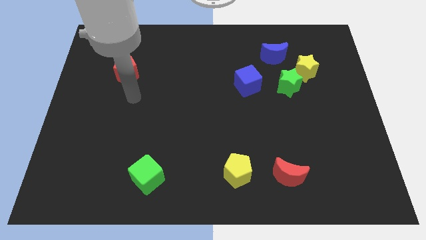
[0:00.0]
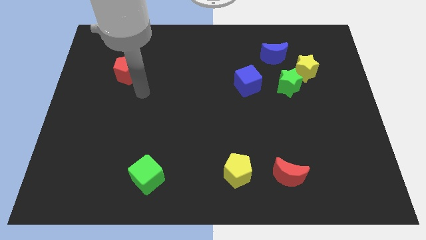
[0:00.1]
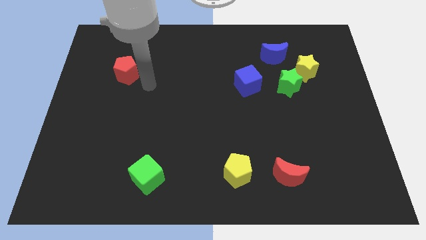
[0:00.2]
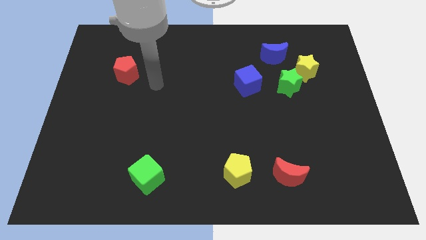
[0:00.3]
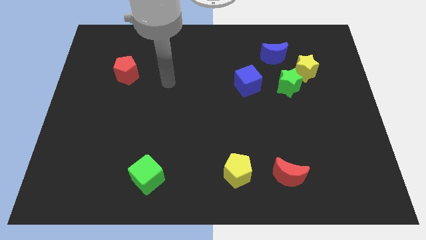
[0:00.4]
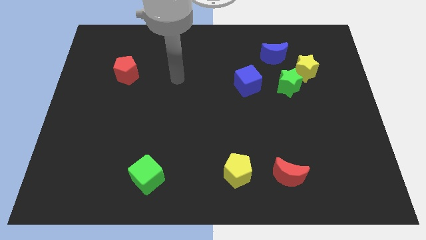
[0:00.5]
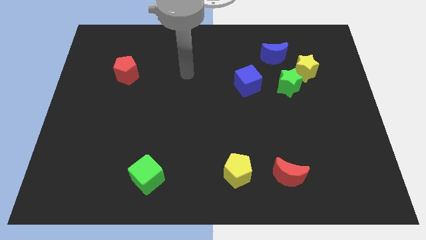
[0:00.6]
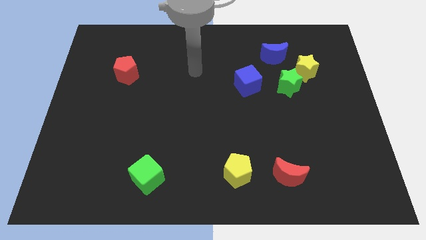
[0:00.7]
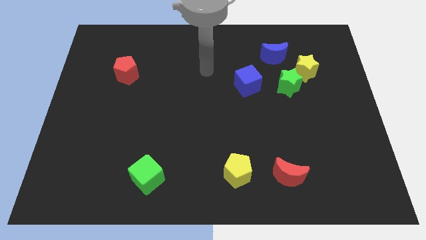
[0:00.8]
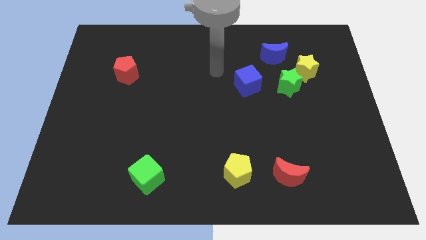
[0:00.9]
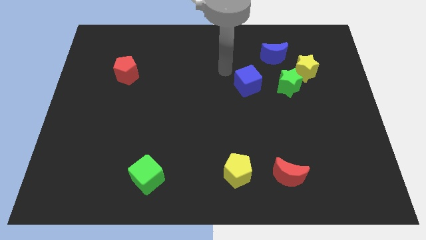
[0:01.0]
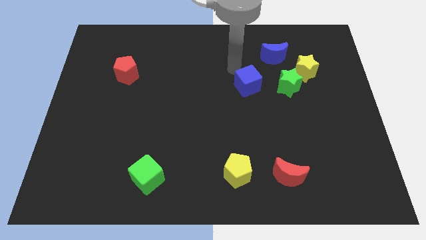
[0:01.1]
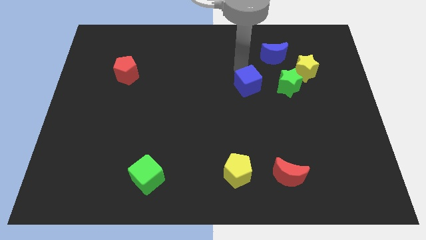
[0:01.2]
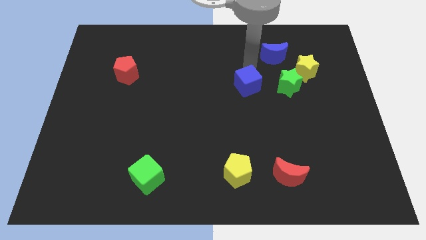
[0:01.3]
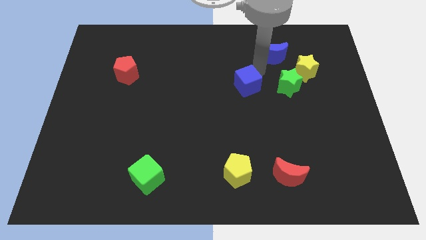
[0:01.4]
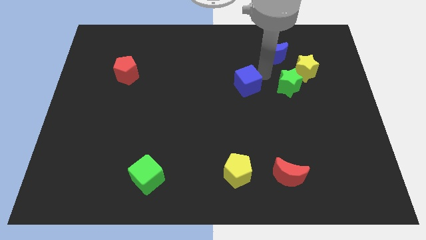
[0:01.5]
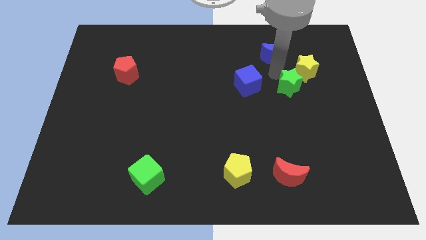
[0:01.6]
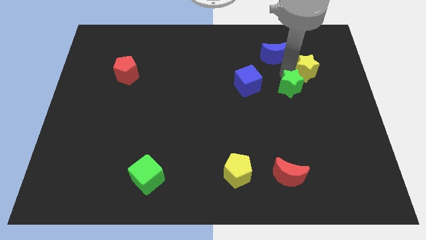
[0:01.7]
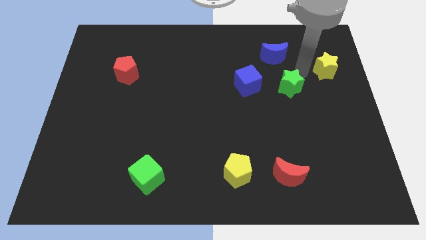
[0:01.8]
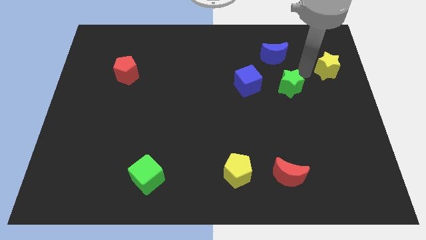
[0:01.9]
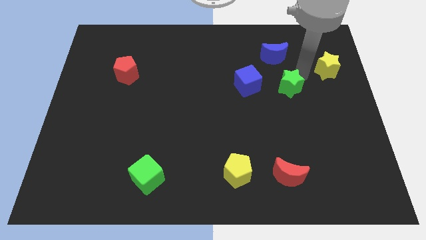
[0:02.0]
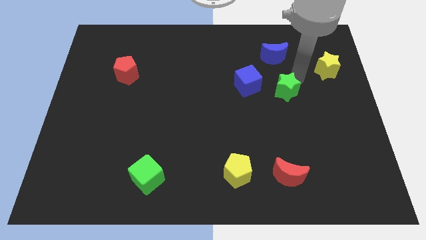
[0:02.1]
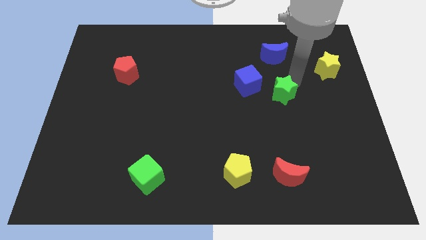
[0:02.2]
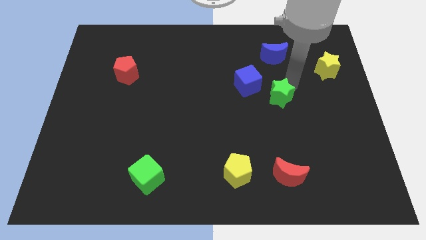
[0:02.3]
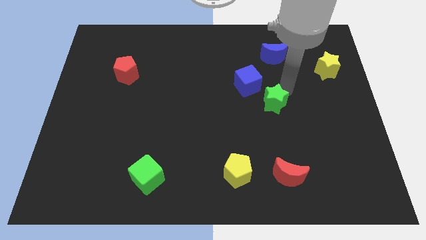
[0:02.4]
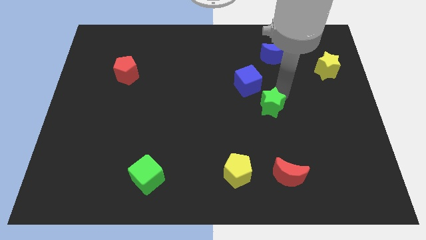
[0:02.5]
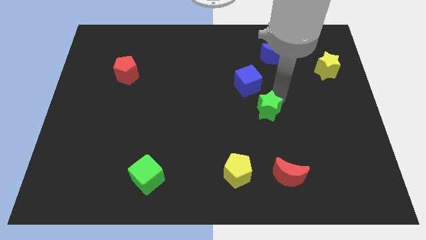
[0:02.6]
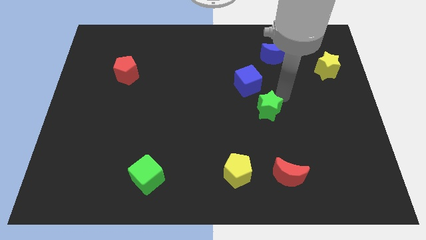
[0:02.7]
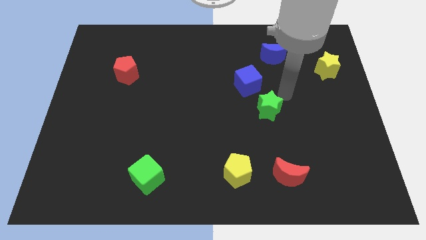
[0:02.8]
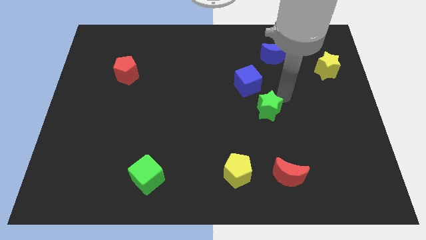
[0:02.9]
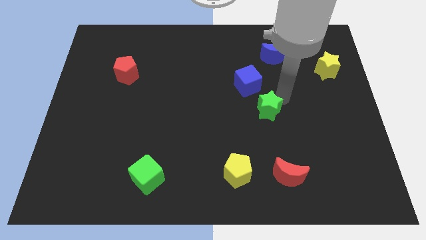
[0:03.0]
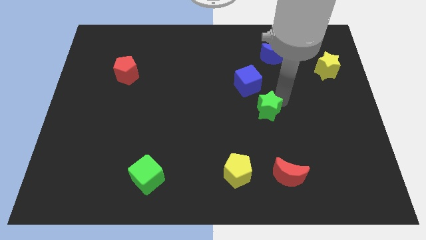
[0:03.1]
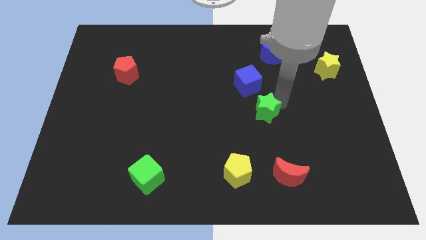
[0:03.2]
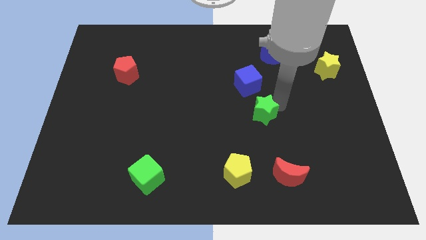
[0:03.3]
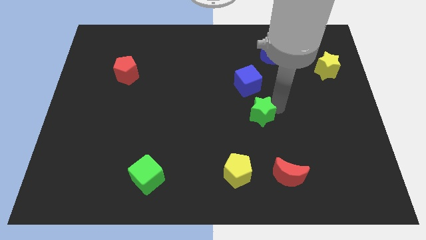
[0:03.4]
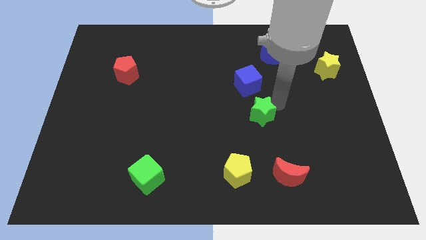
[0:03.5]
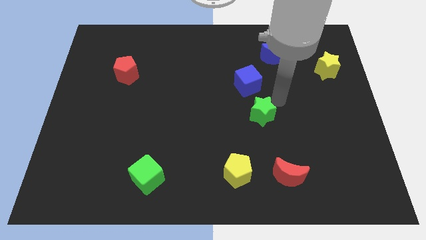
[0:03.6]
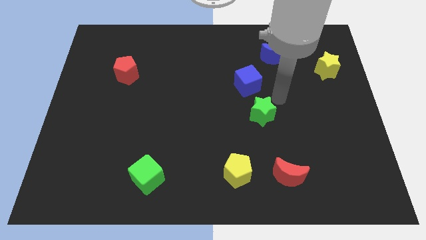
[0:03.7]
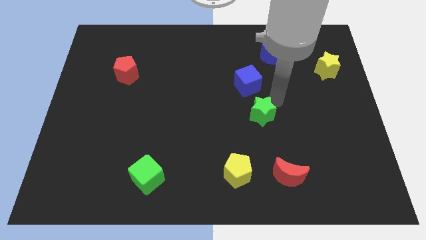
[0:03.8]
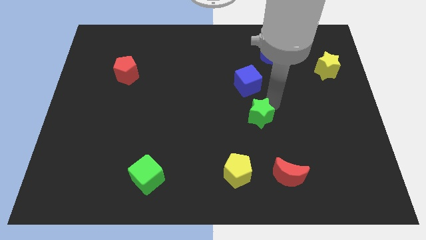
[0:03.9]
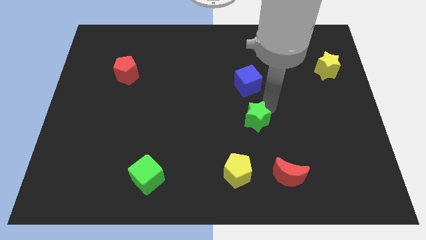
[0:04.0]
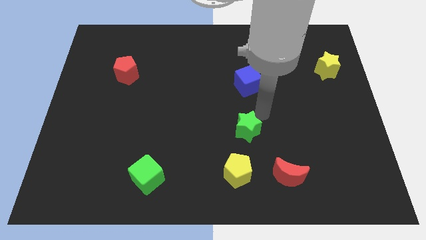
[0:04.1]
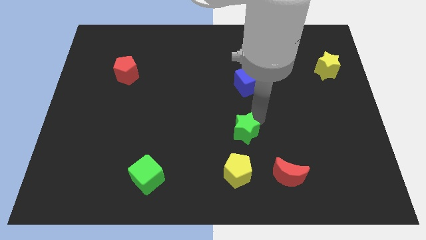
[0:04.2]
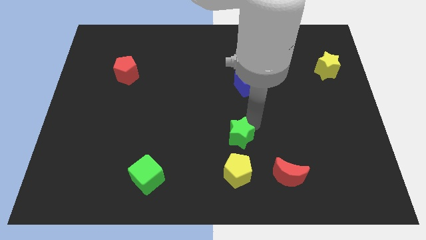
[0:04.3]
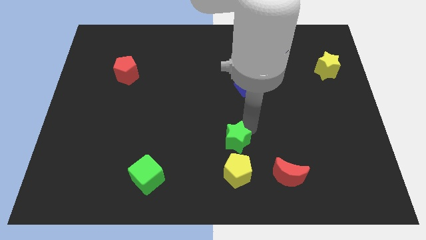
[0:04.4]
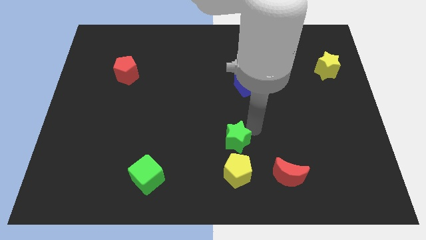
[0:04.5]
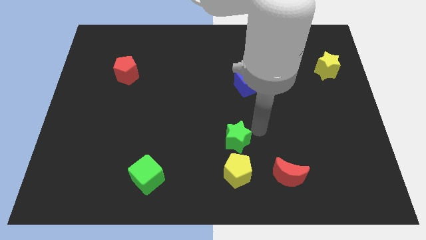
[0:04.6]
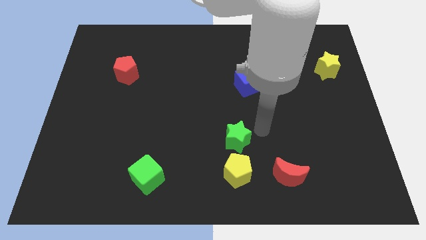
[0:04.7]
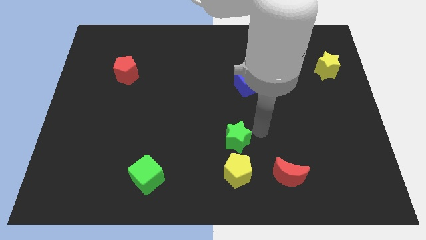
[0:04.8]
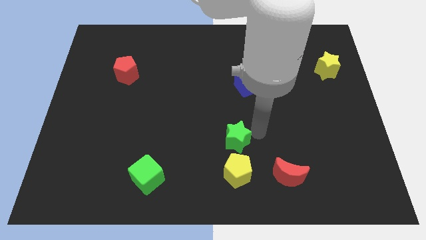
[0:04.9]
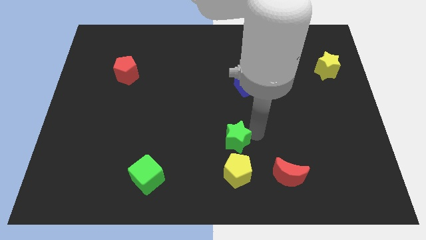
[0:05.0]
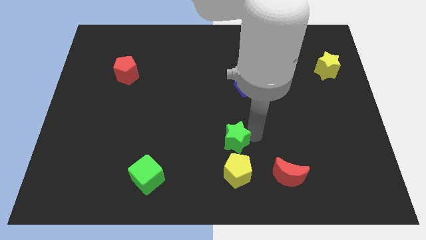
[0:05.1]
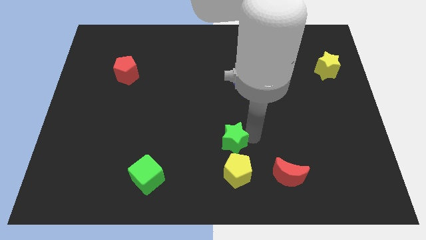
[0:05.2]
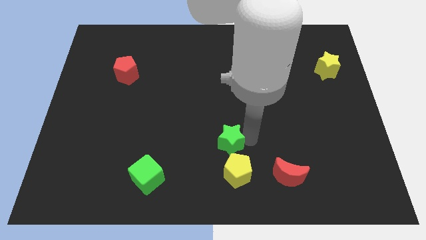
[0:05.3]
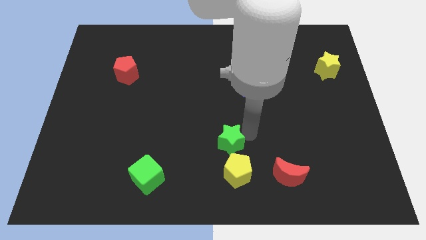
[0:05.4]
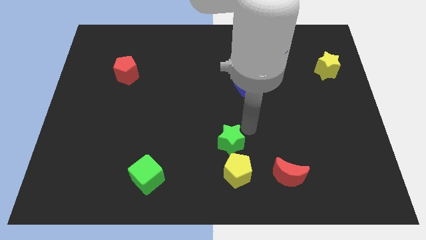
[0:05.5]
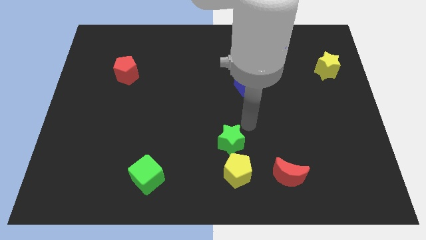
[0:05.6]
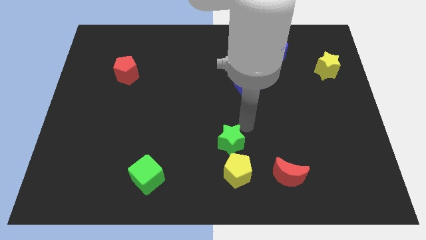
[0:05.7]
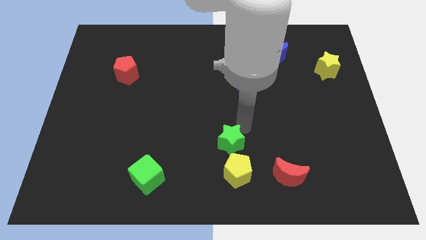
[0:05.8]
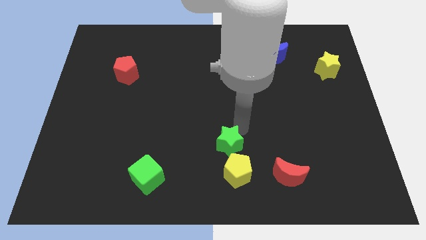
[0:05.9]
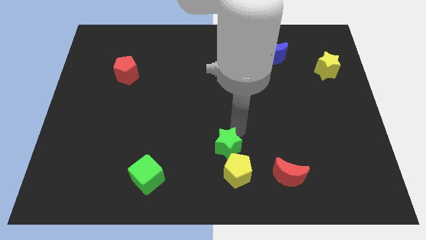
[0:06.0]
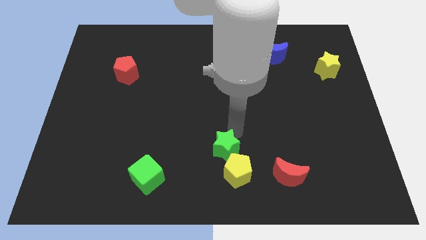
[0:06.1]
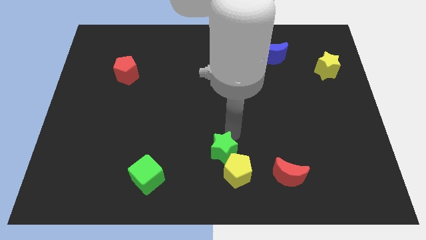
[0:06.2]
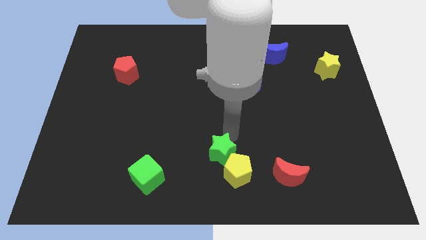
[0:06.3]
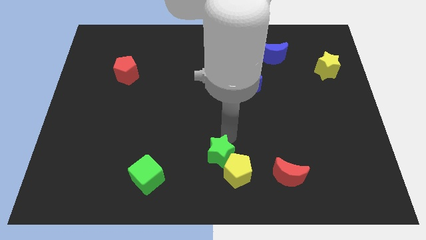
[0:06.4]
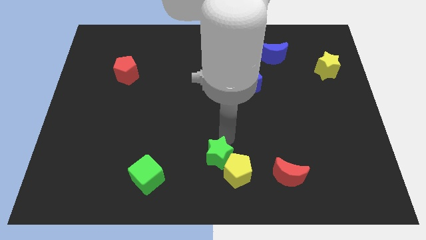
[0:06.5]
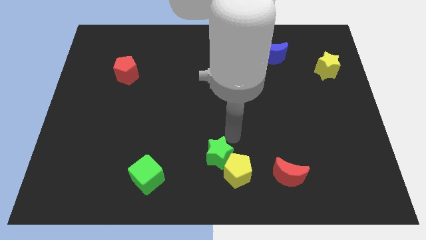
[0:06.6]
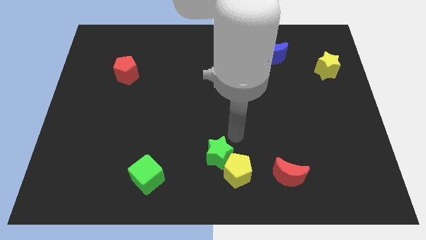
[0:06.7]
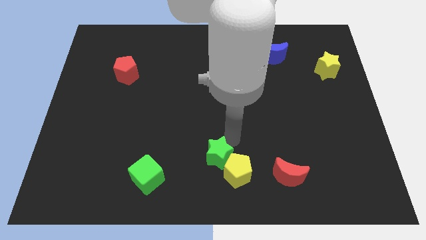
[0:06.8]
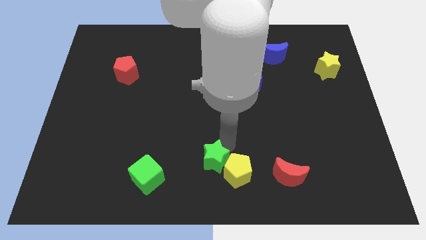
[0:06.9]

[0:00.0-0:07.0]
put the green star to the right side of the green cube

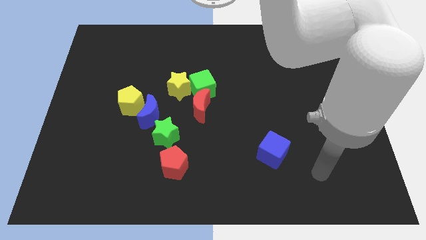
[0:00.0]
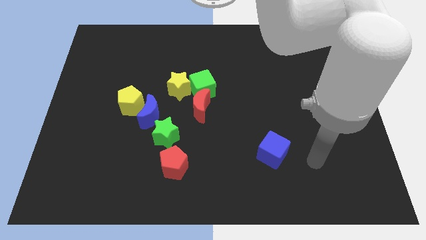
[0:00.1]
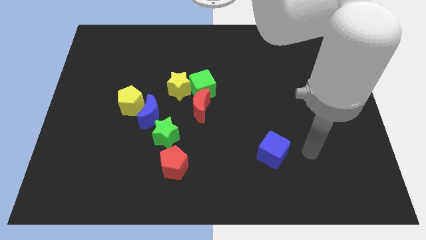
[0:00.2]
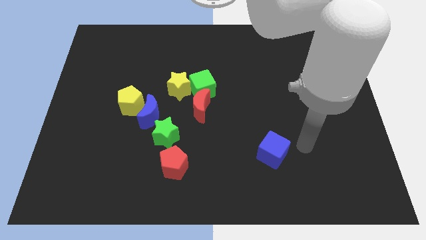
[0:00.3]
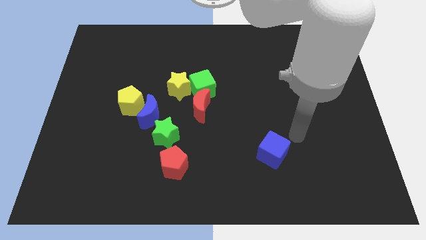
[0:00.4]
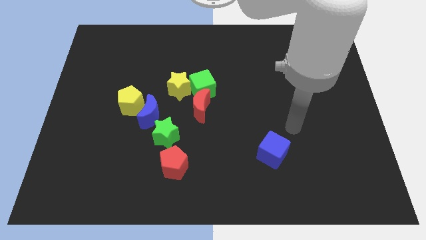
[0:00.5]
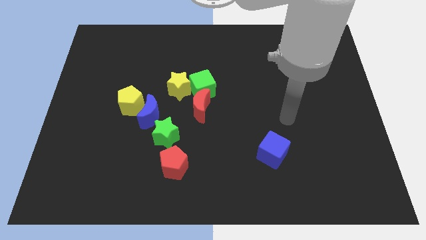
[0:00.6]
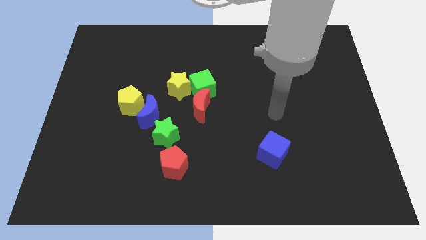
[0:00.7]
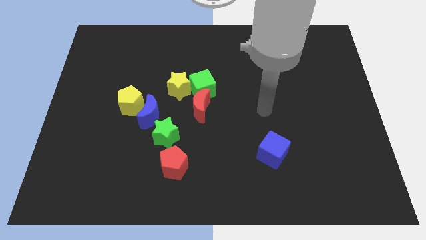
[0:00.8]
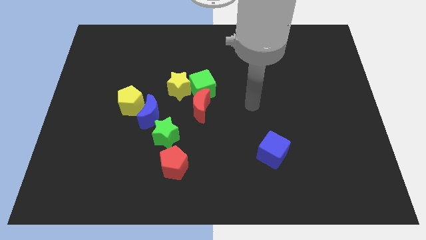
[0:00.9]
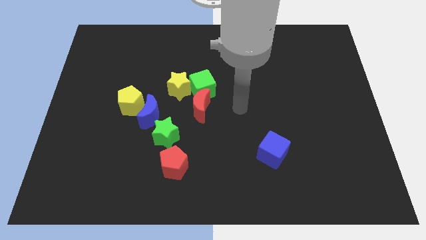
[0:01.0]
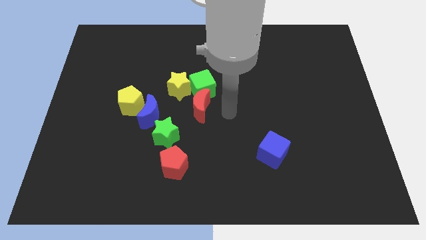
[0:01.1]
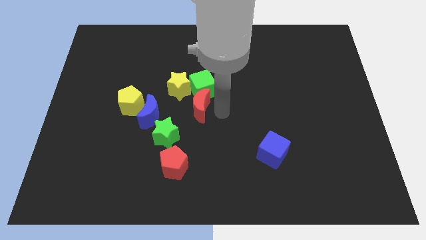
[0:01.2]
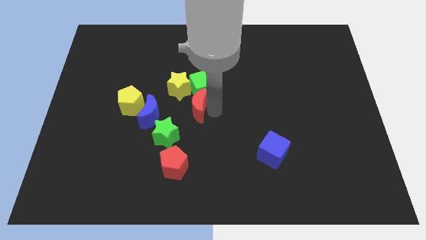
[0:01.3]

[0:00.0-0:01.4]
move the red moon to the right of the yellow pentagon
